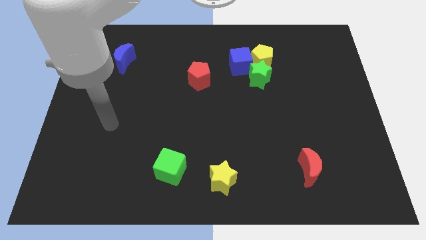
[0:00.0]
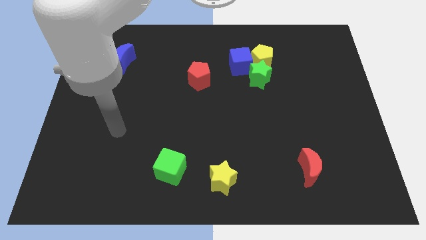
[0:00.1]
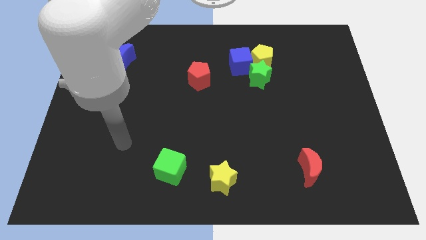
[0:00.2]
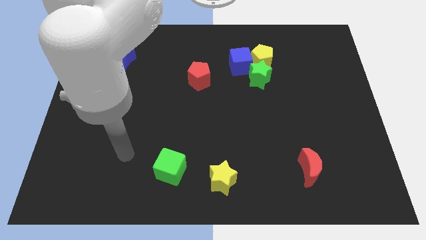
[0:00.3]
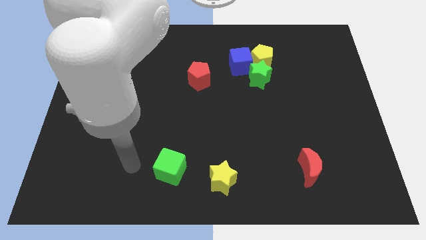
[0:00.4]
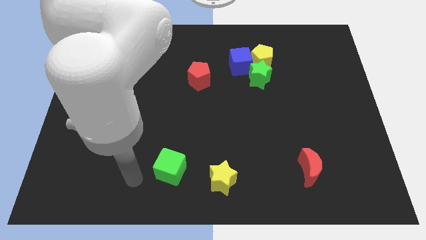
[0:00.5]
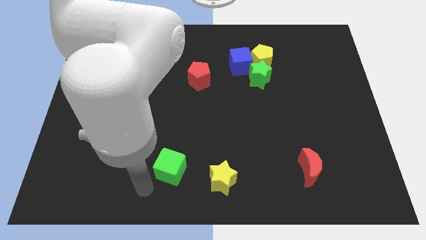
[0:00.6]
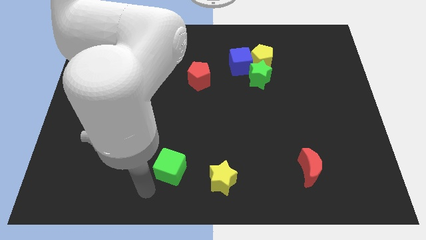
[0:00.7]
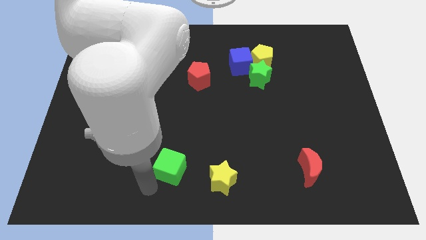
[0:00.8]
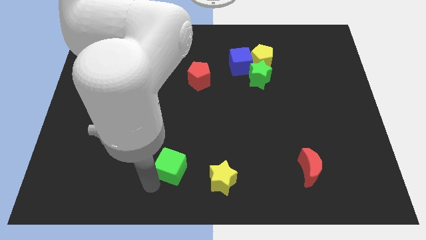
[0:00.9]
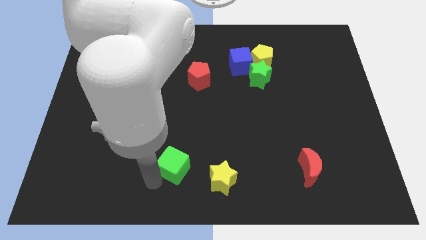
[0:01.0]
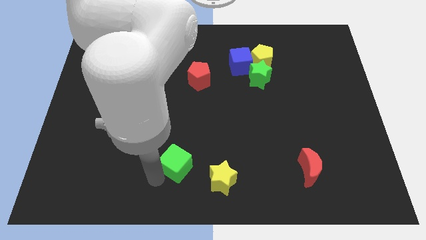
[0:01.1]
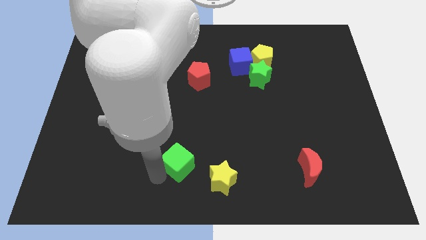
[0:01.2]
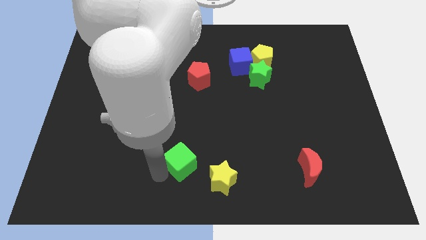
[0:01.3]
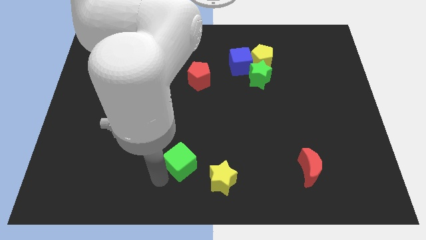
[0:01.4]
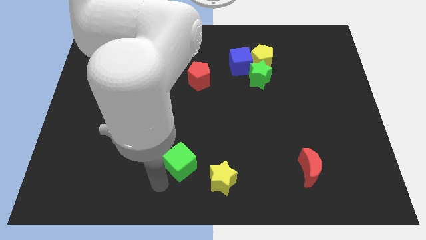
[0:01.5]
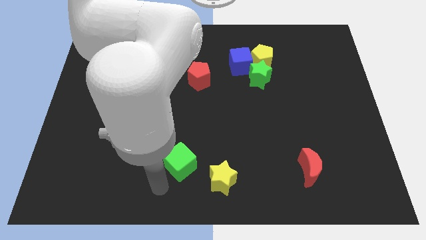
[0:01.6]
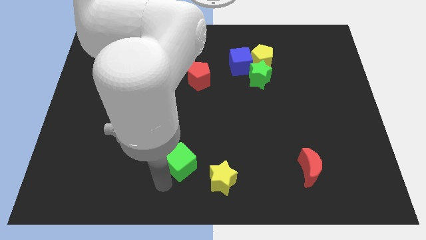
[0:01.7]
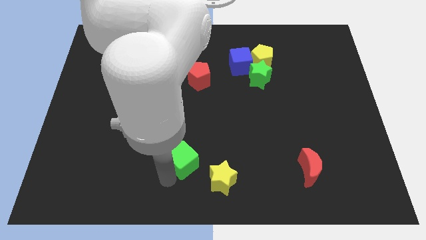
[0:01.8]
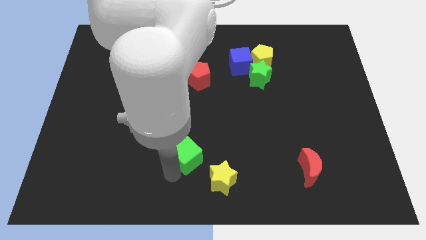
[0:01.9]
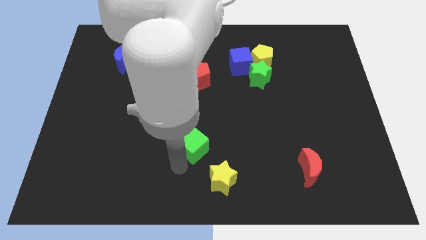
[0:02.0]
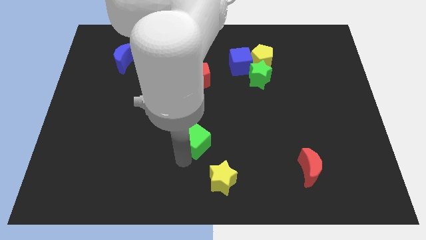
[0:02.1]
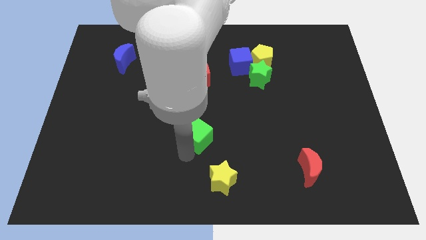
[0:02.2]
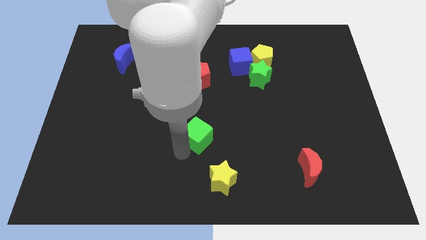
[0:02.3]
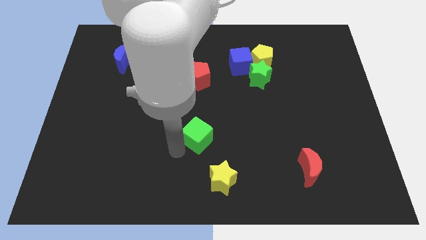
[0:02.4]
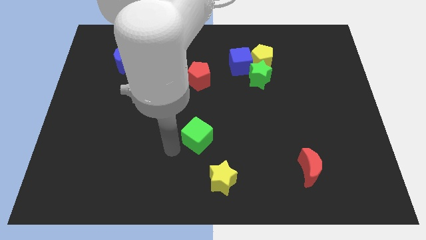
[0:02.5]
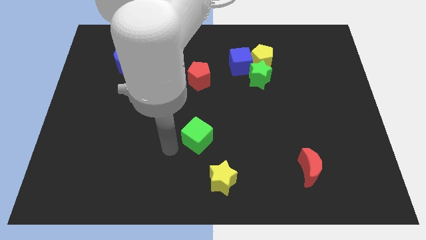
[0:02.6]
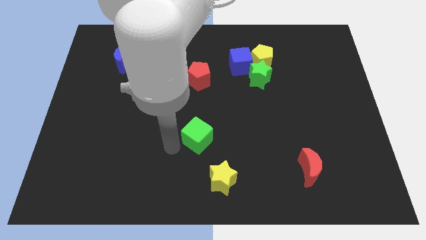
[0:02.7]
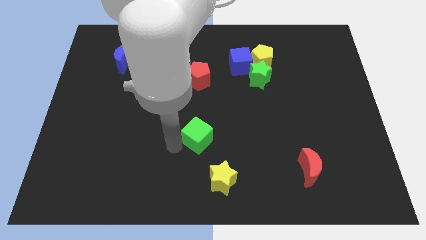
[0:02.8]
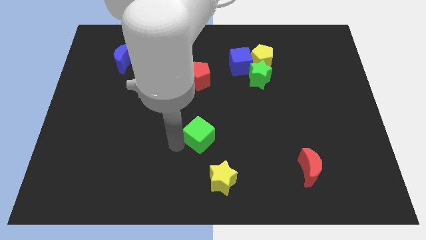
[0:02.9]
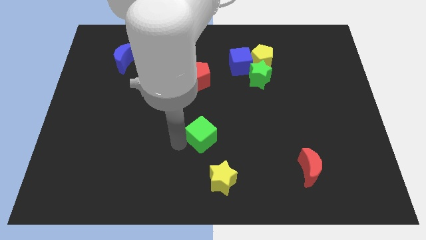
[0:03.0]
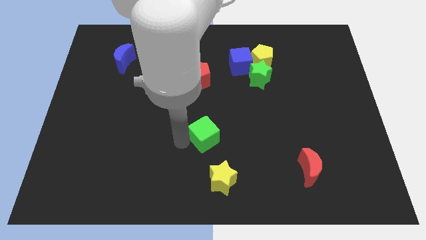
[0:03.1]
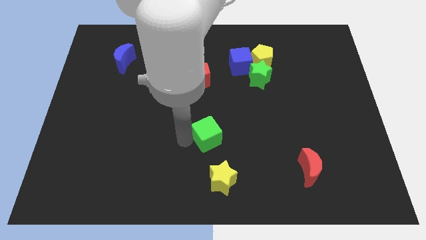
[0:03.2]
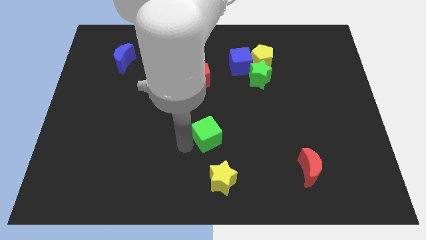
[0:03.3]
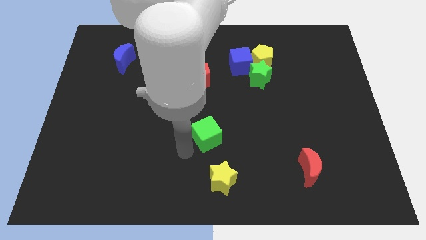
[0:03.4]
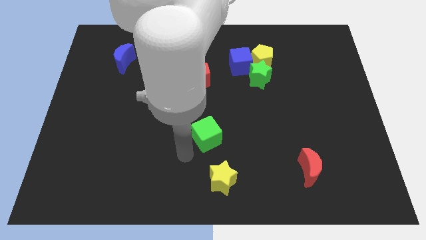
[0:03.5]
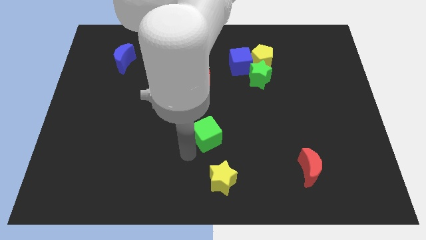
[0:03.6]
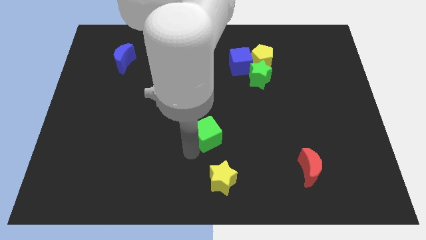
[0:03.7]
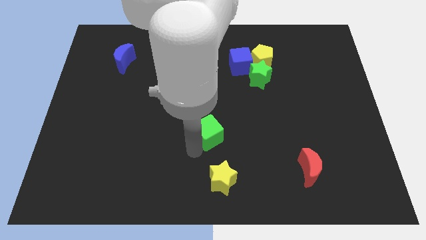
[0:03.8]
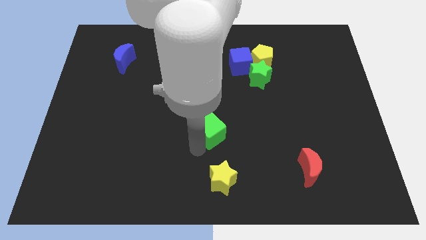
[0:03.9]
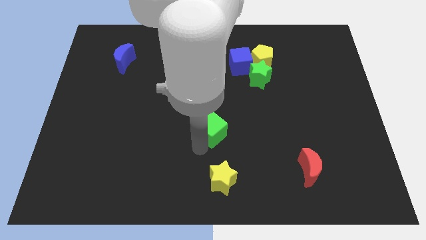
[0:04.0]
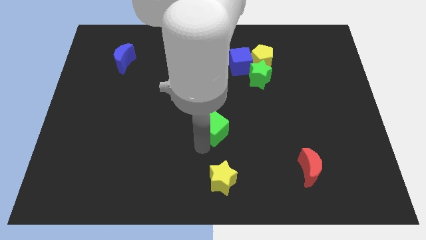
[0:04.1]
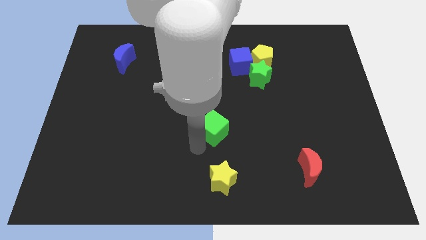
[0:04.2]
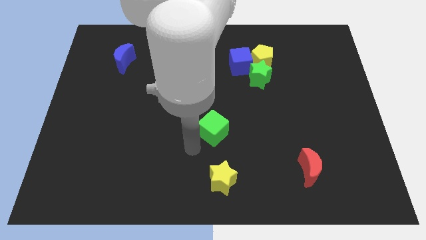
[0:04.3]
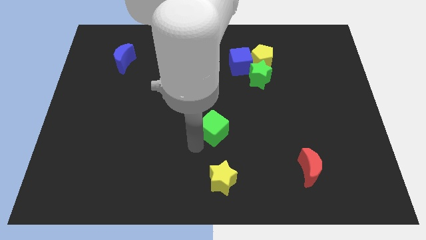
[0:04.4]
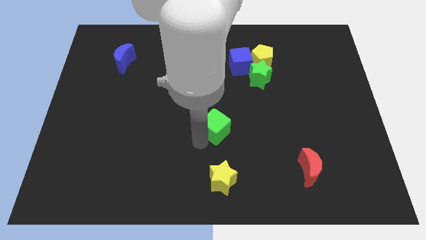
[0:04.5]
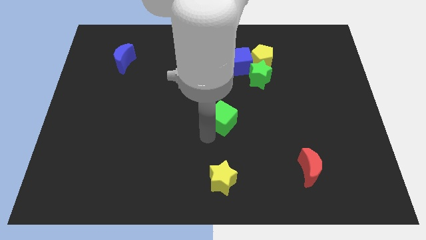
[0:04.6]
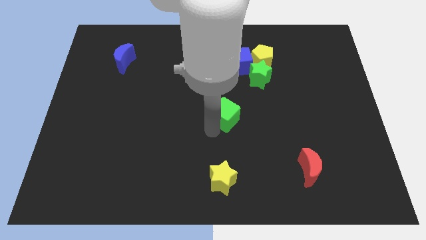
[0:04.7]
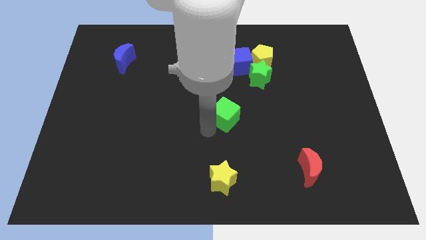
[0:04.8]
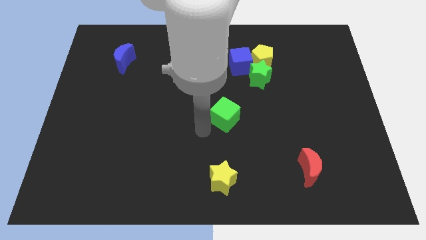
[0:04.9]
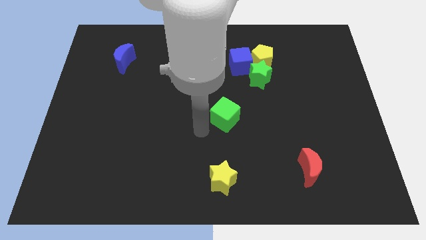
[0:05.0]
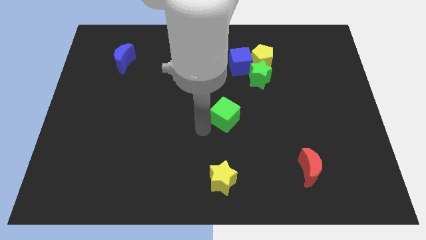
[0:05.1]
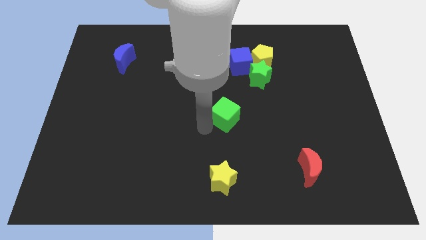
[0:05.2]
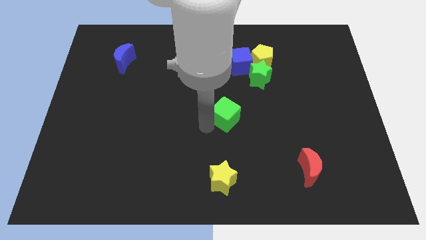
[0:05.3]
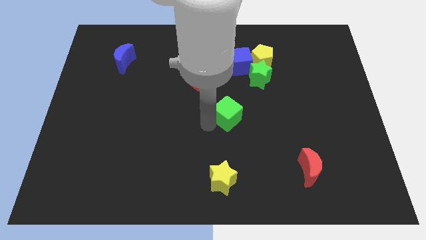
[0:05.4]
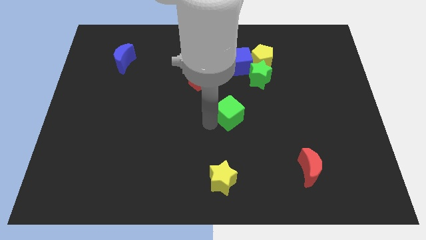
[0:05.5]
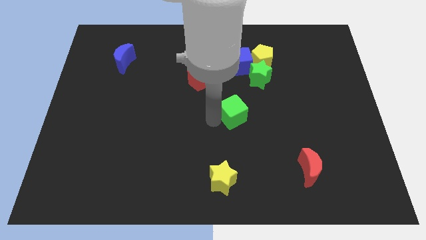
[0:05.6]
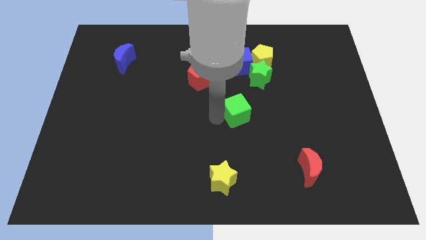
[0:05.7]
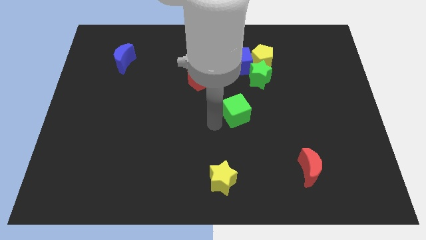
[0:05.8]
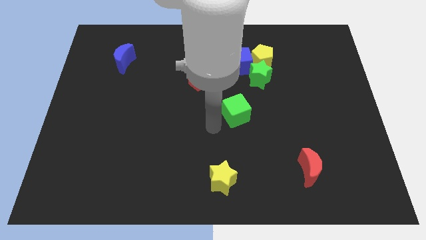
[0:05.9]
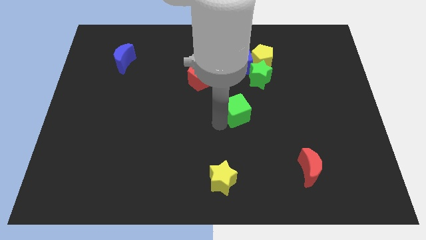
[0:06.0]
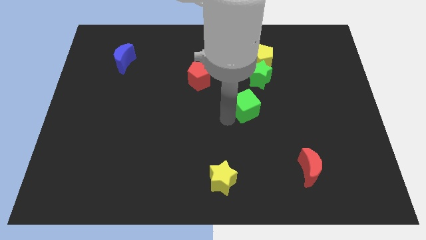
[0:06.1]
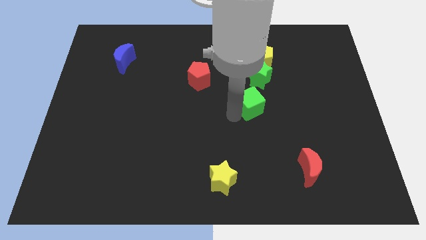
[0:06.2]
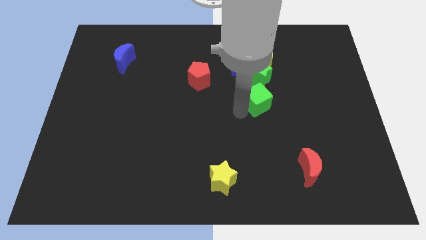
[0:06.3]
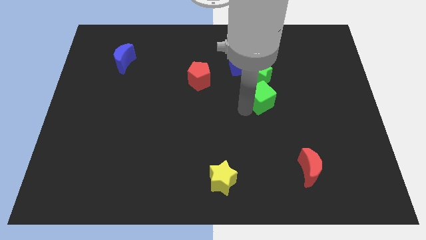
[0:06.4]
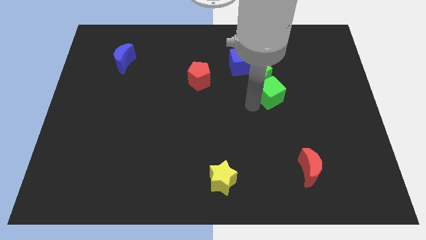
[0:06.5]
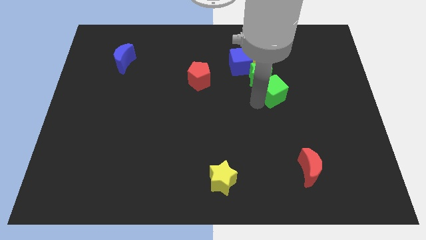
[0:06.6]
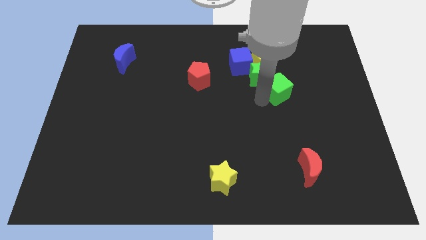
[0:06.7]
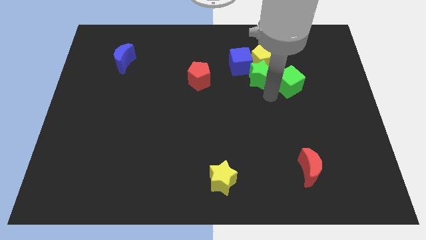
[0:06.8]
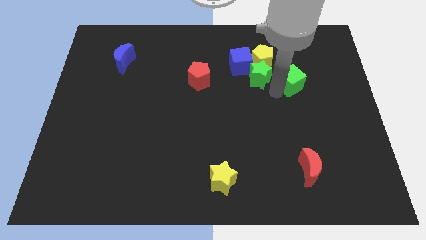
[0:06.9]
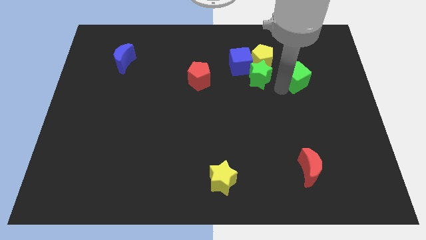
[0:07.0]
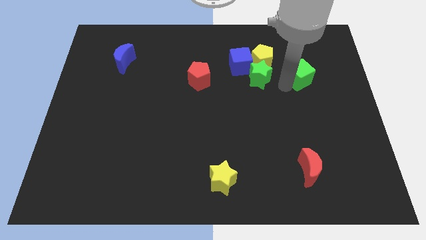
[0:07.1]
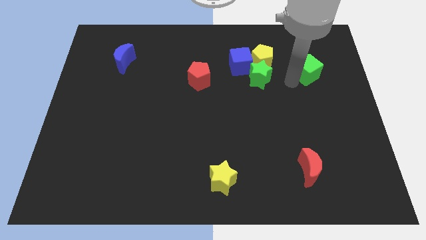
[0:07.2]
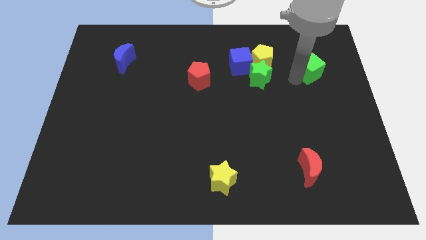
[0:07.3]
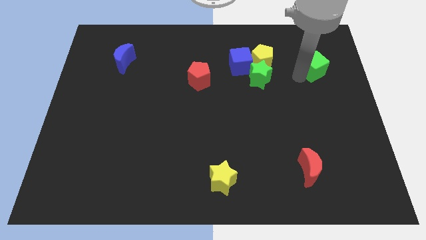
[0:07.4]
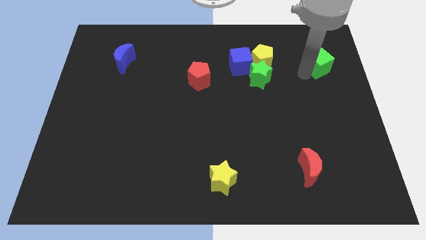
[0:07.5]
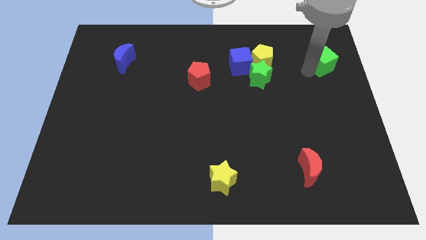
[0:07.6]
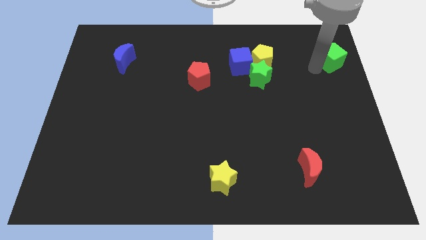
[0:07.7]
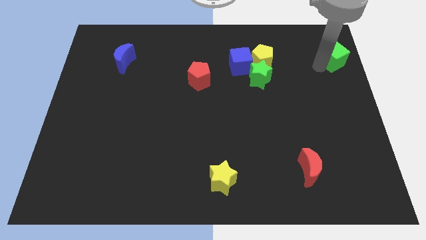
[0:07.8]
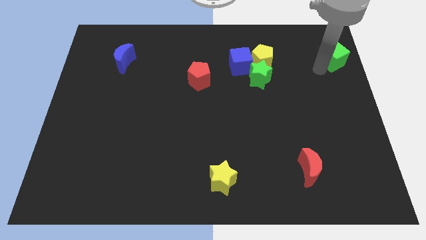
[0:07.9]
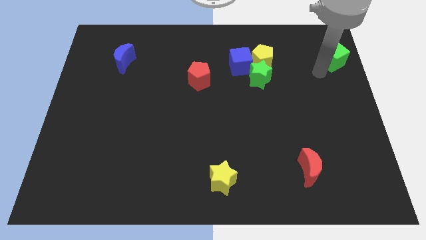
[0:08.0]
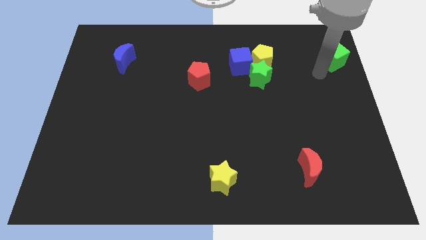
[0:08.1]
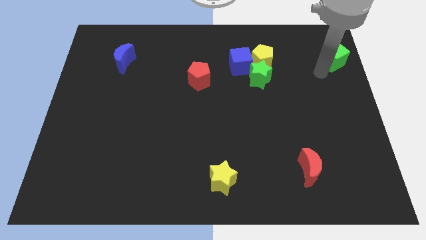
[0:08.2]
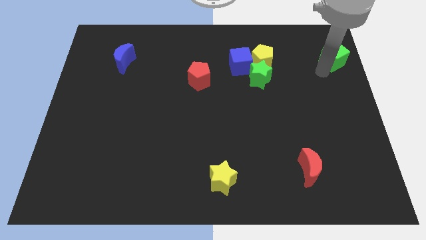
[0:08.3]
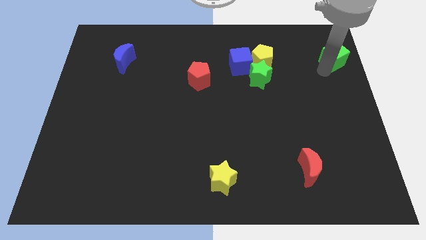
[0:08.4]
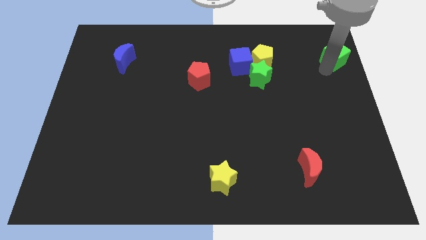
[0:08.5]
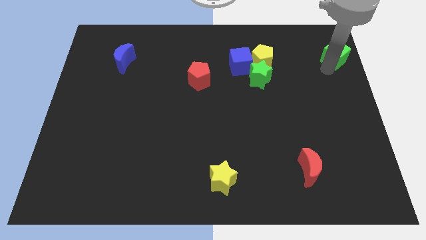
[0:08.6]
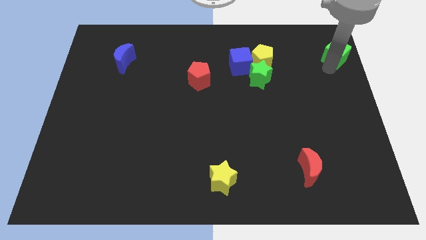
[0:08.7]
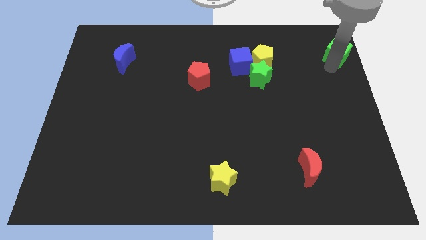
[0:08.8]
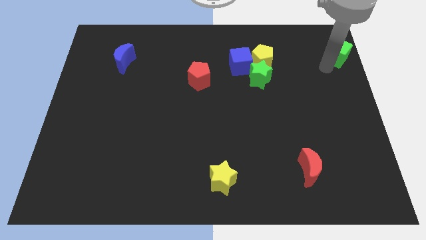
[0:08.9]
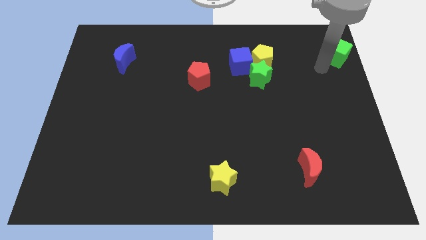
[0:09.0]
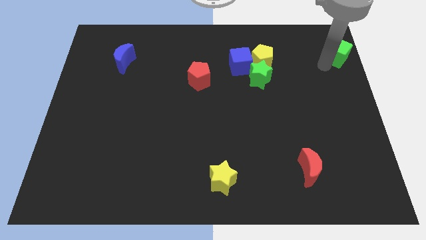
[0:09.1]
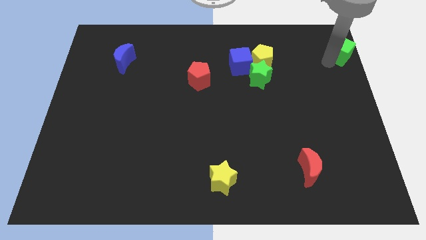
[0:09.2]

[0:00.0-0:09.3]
put the green cube to the top right corner
